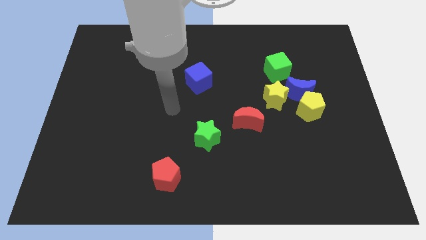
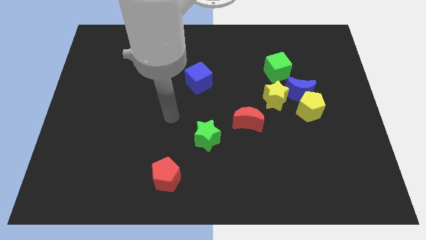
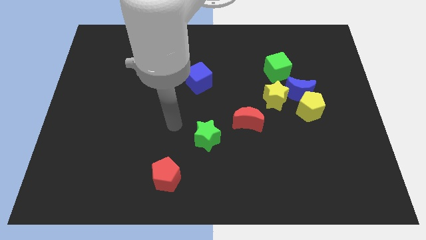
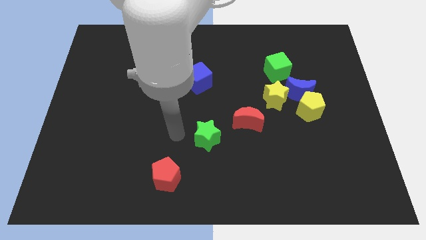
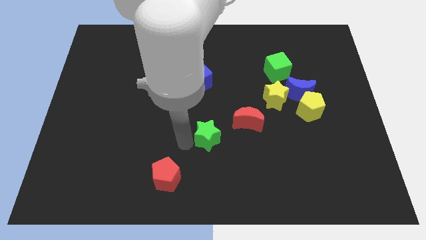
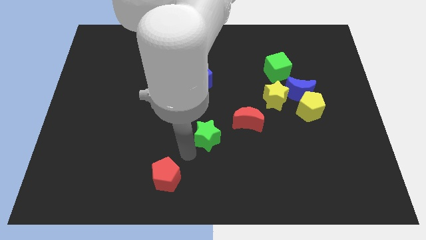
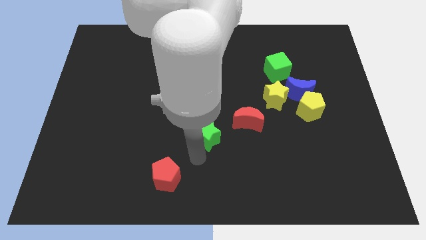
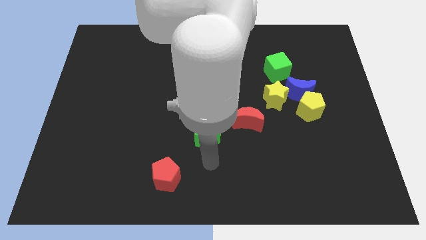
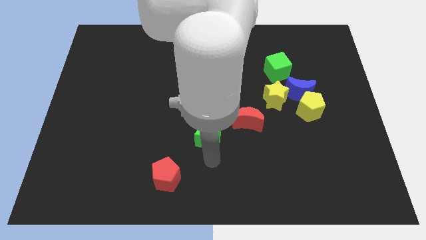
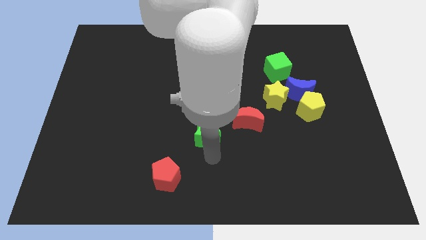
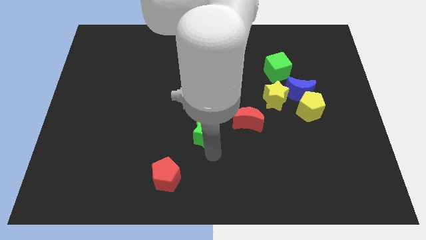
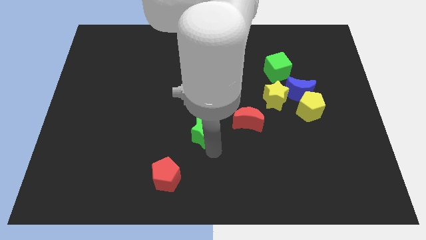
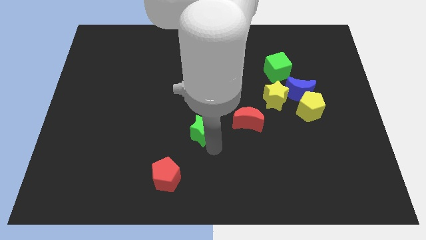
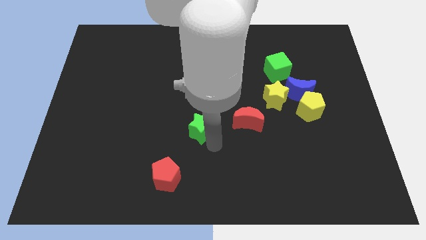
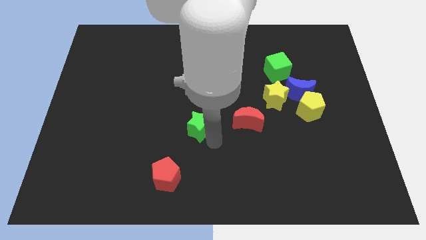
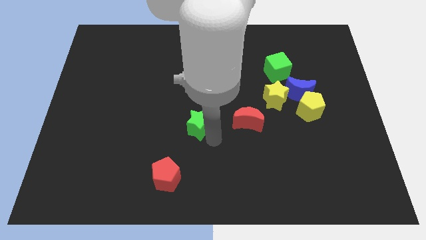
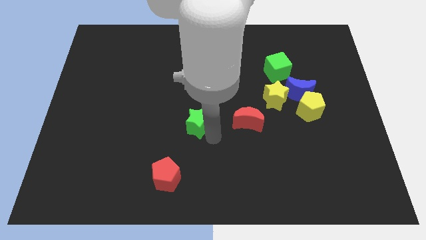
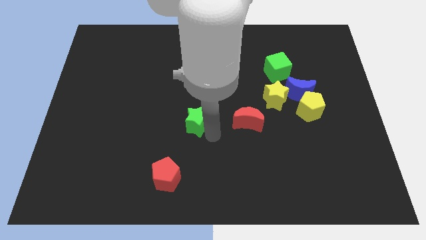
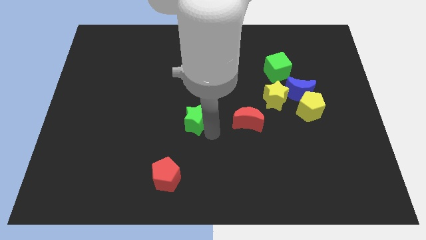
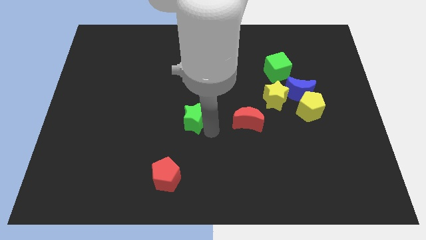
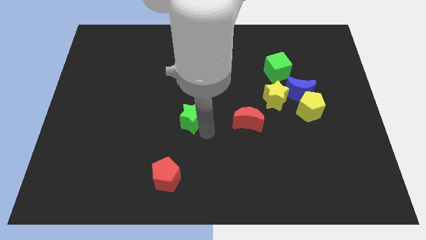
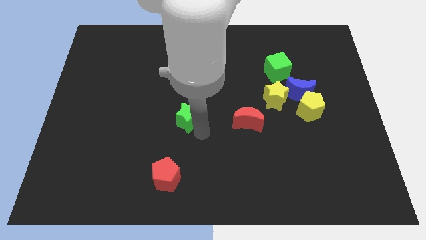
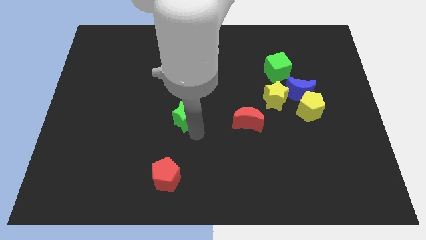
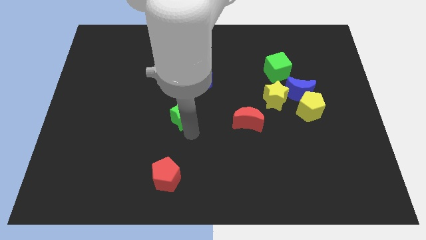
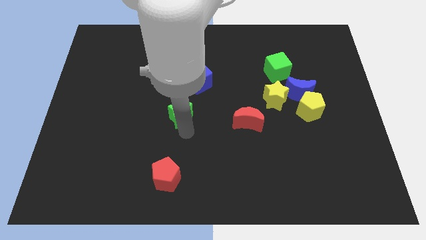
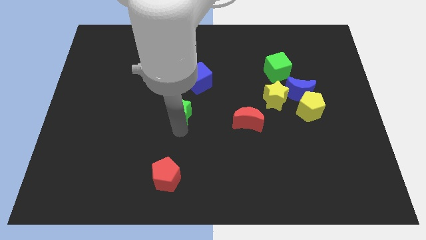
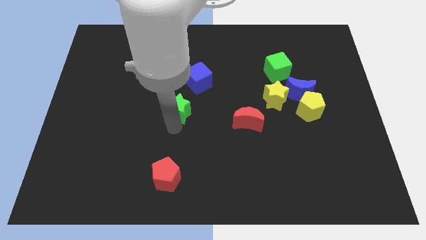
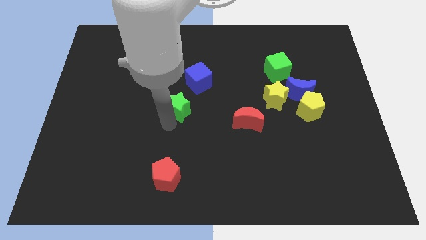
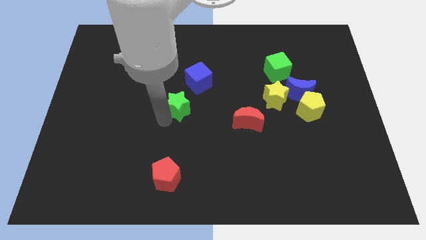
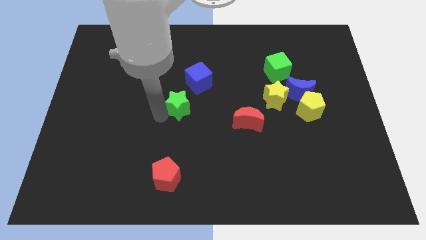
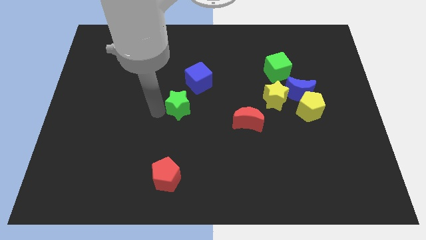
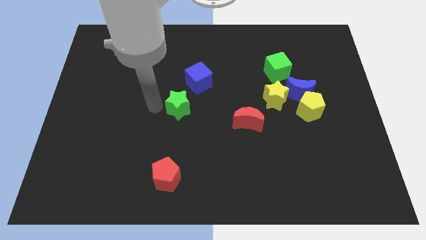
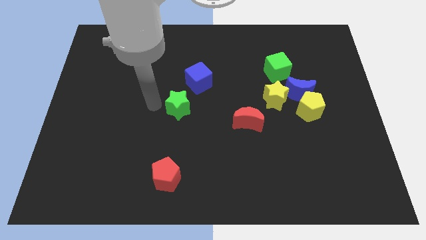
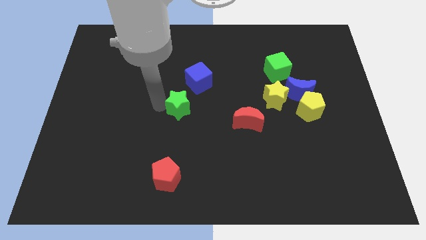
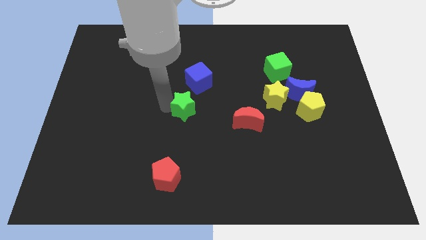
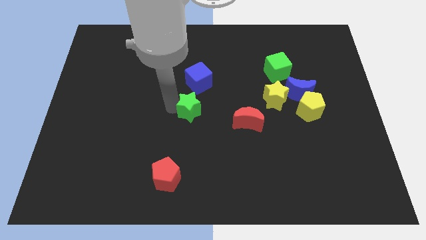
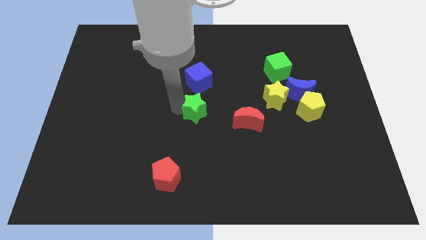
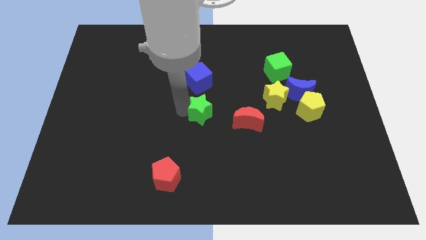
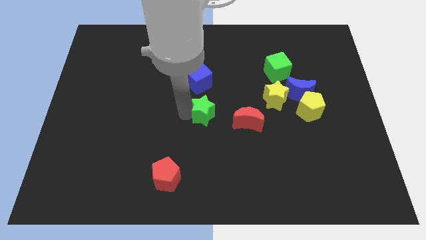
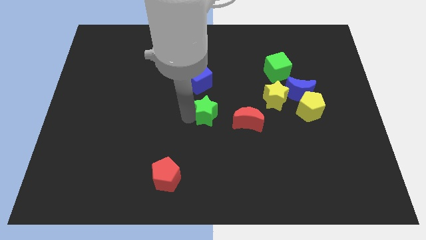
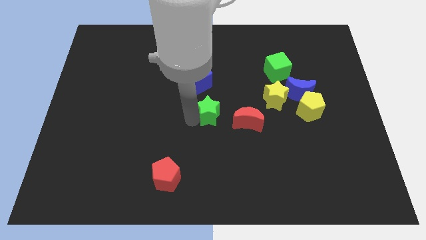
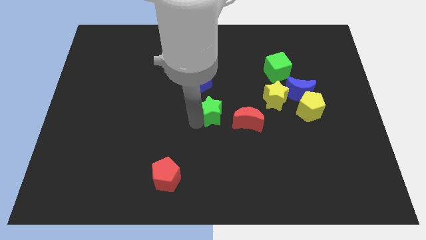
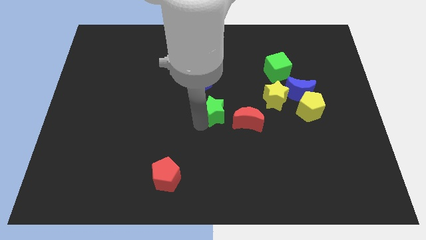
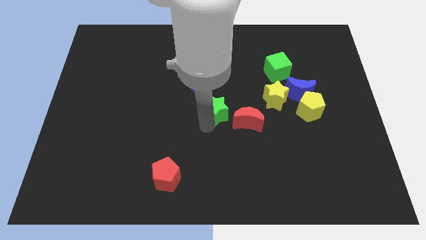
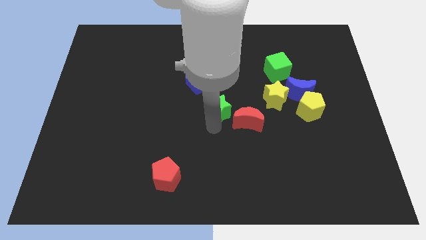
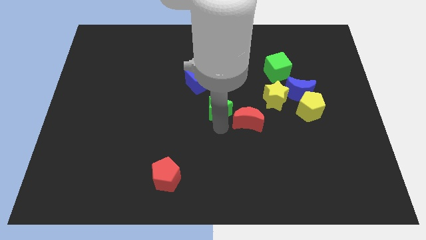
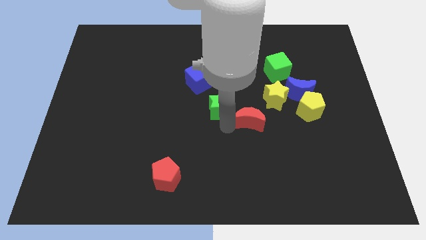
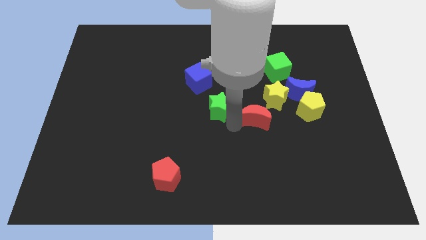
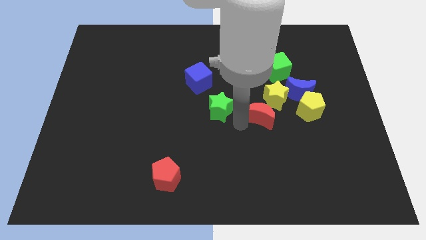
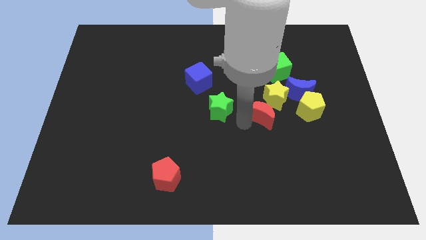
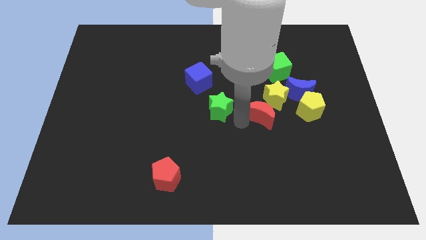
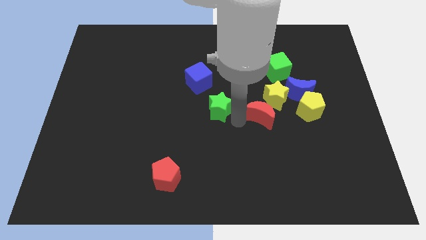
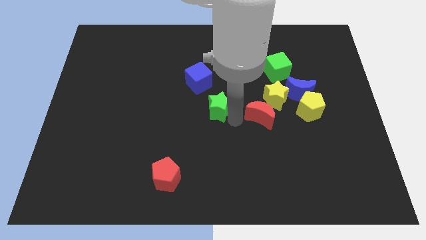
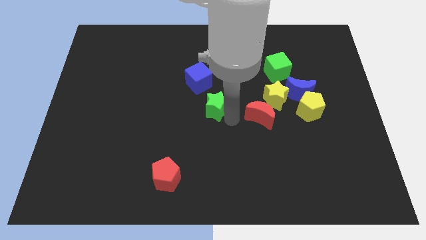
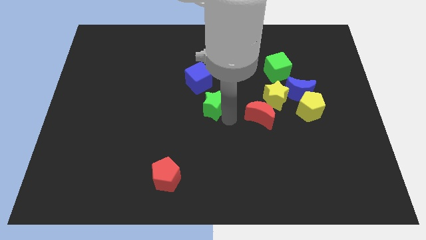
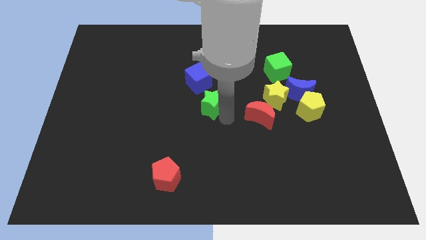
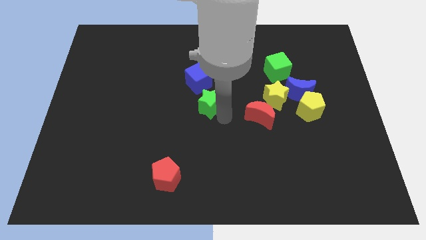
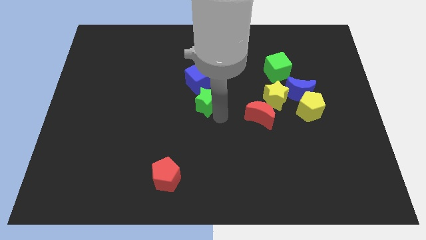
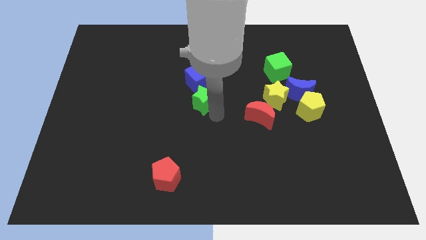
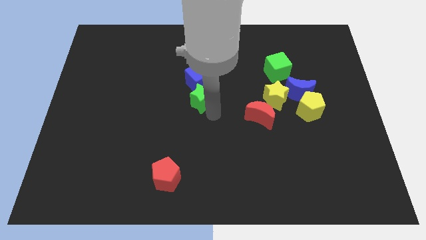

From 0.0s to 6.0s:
put the green star close to the blue cube

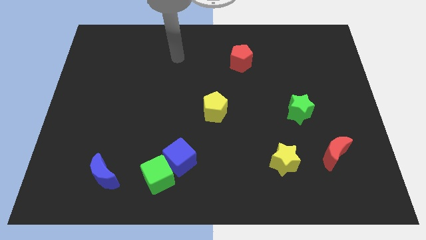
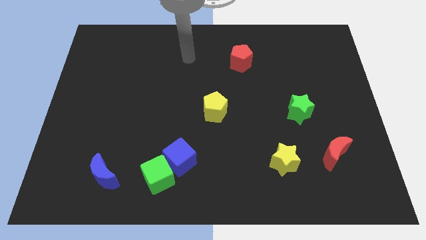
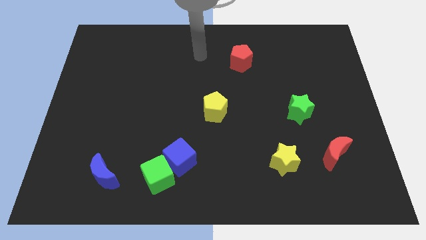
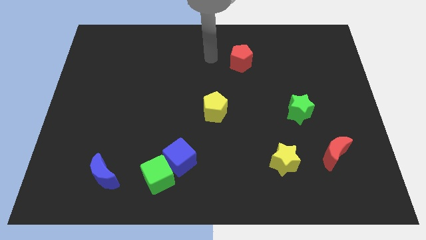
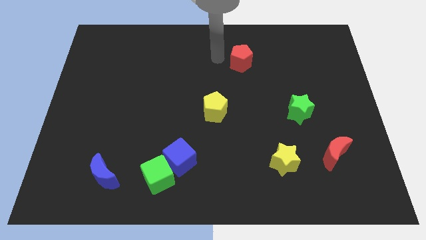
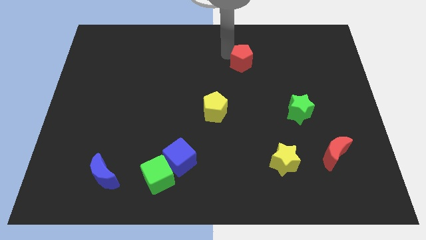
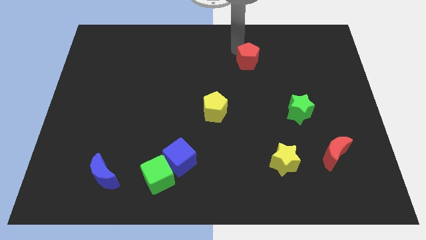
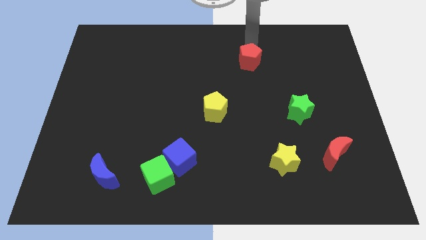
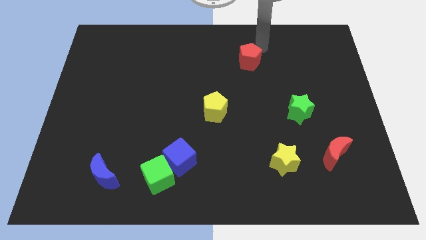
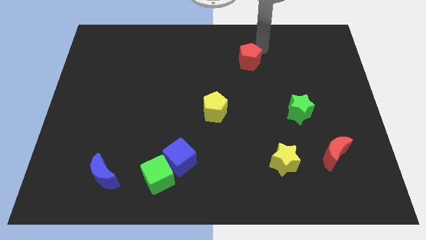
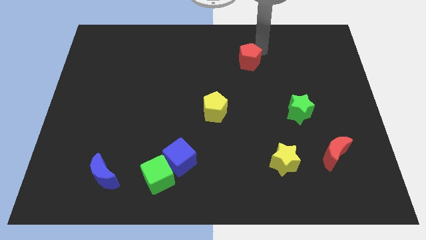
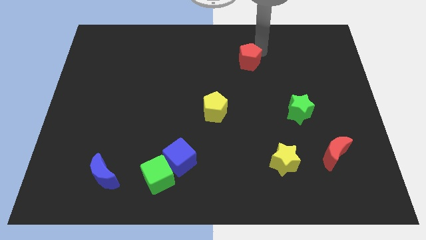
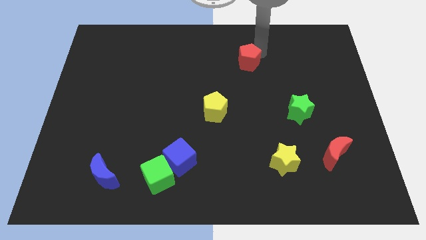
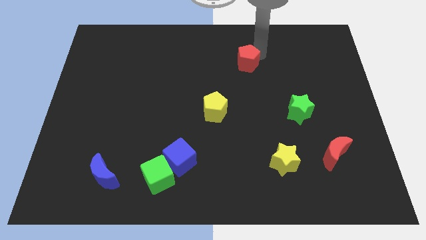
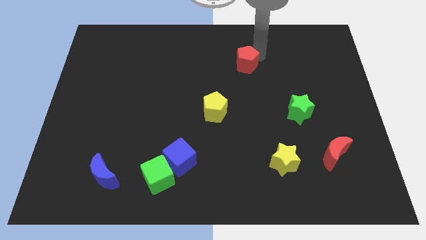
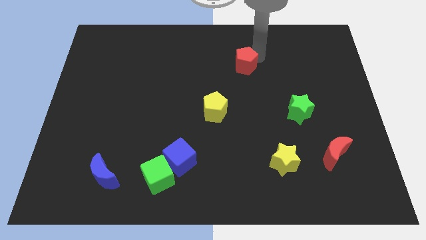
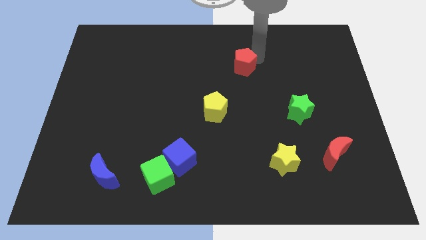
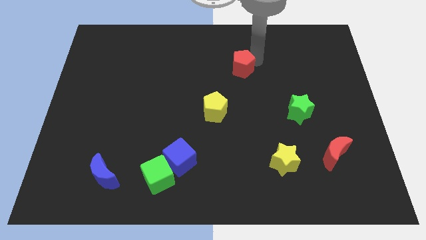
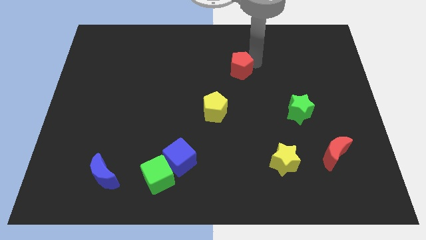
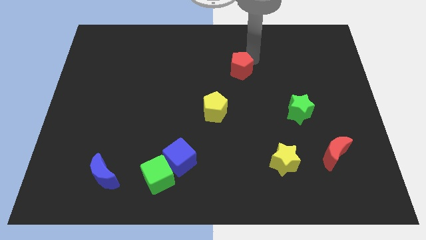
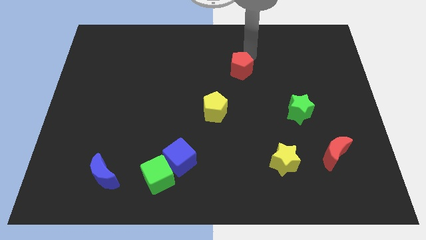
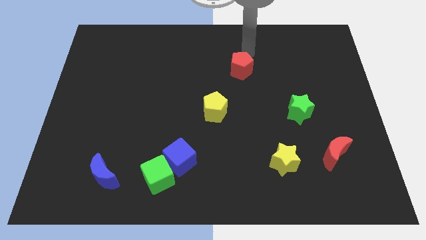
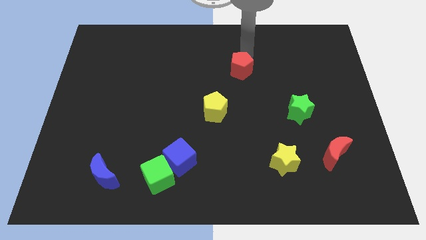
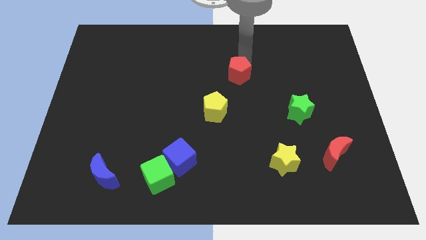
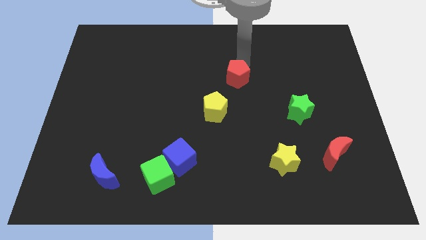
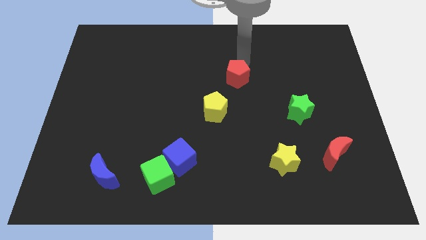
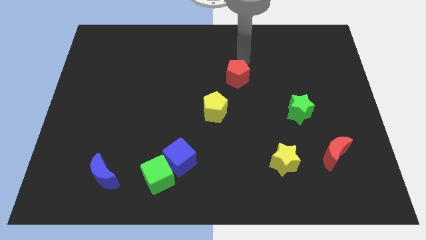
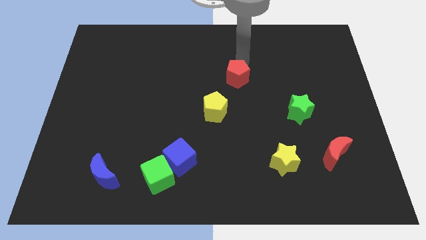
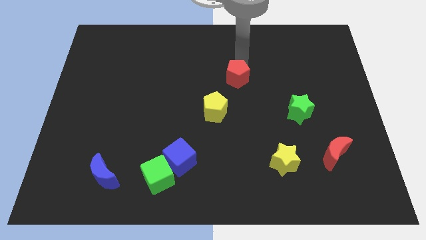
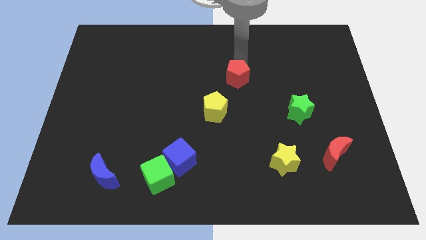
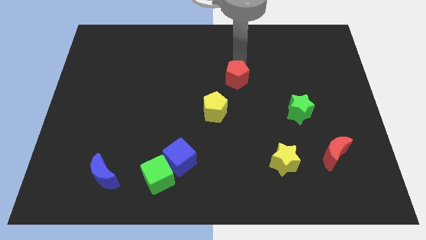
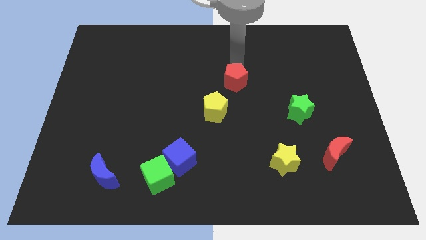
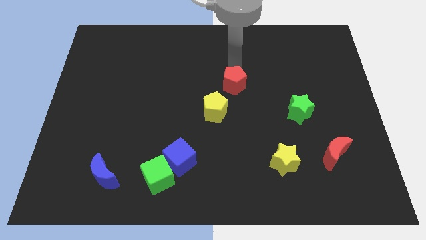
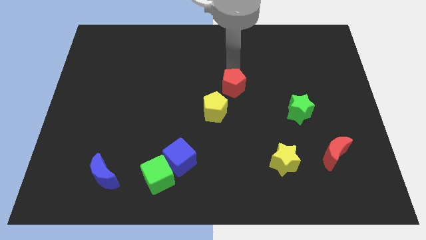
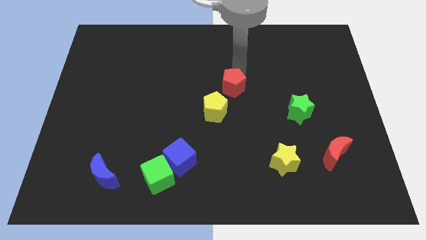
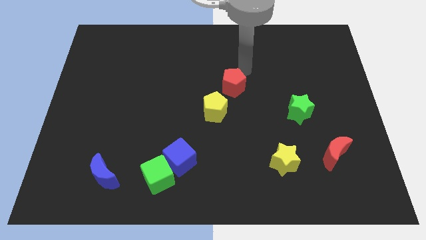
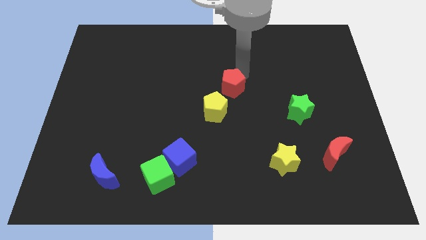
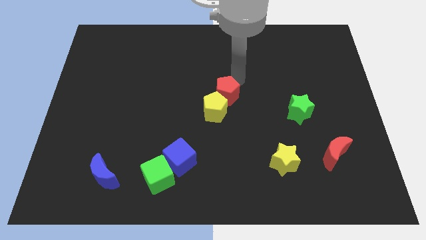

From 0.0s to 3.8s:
move the red pentagon next to the yellow pentagon
